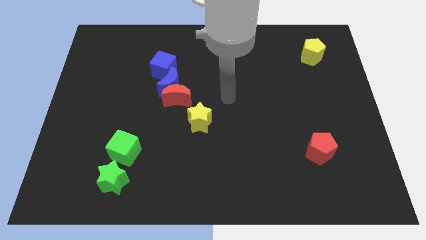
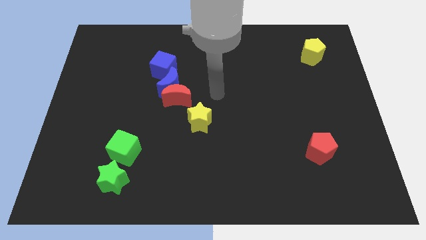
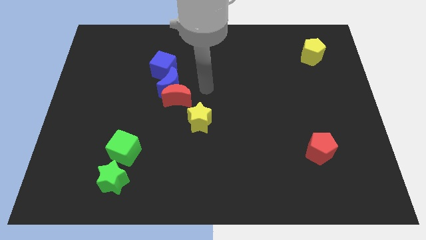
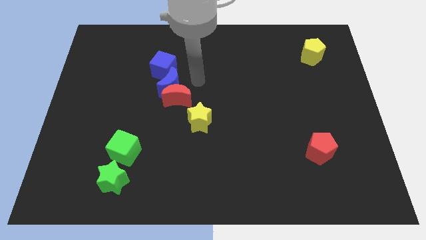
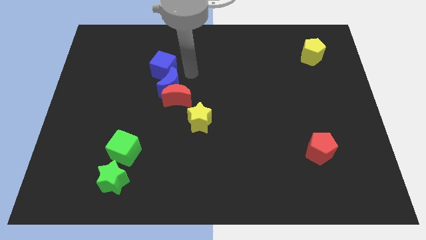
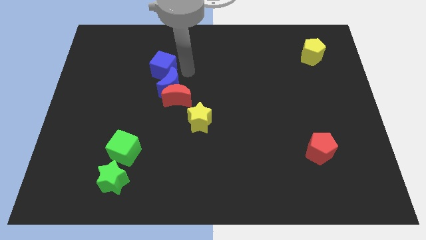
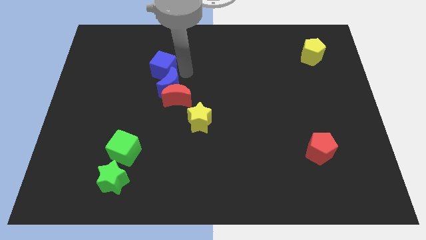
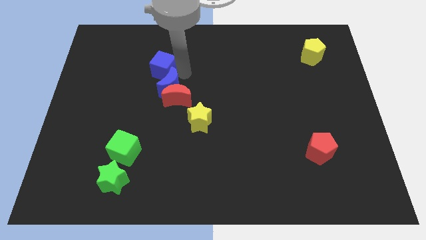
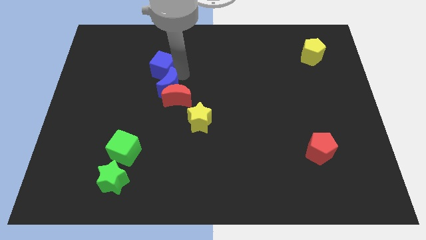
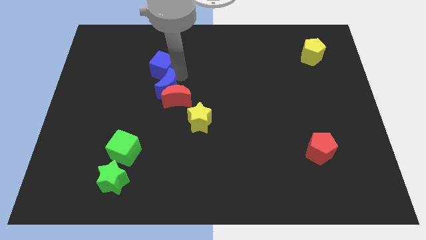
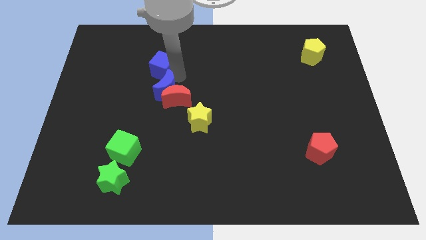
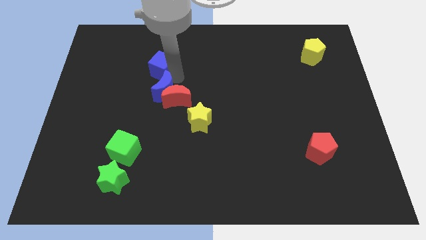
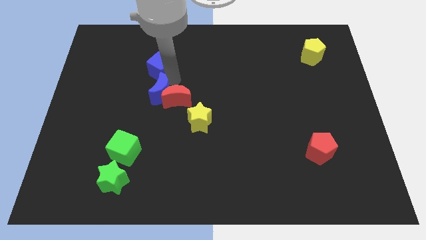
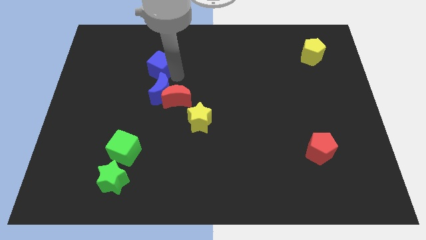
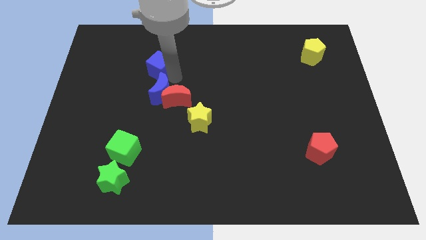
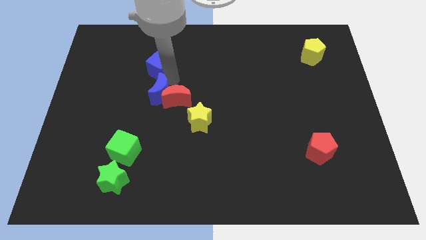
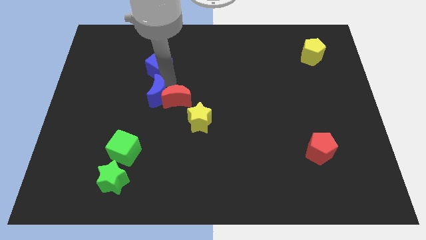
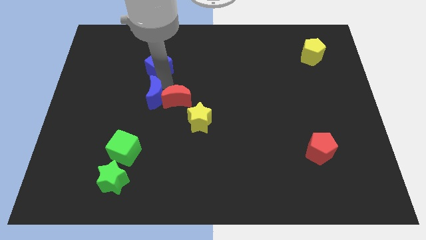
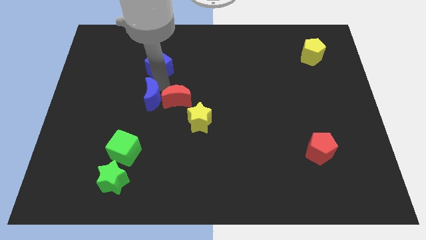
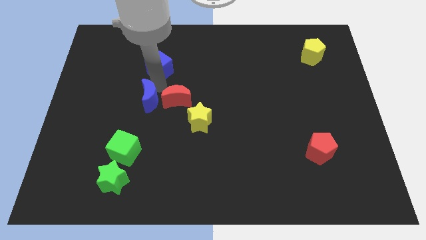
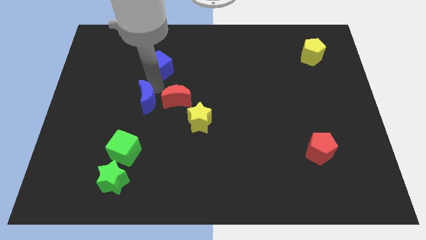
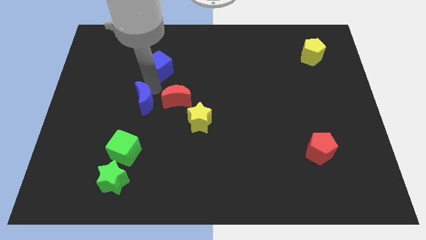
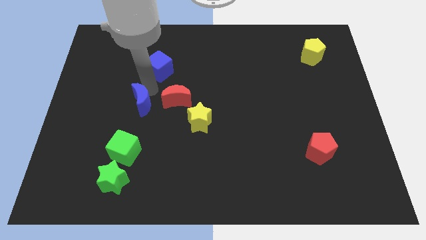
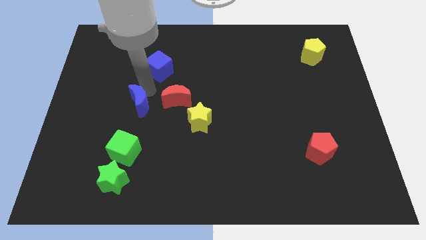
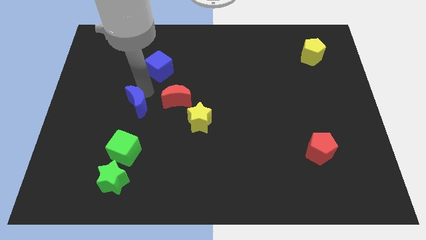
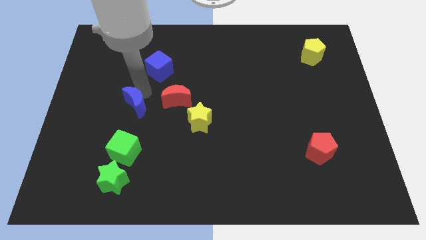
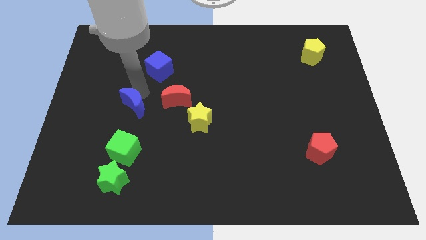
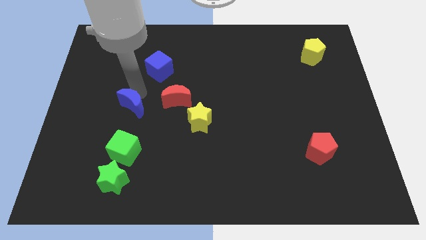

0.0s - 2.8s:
move the blue moon away from the red moon and blue cube

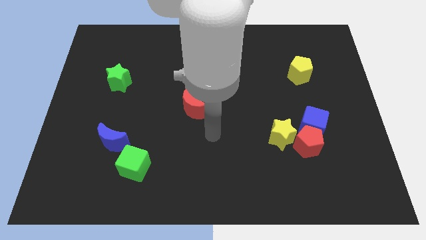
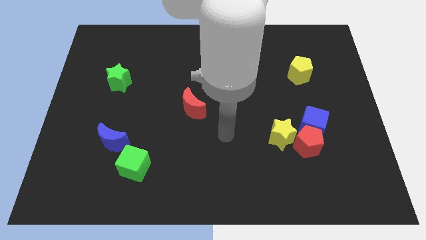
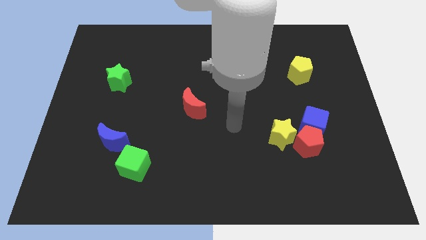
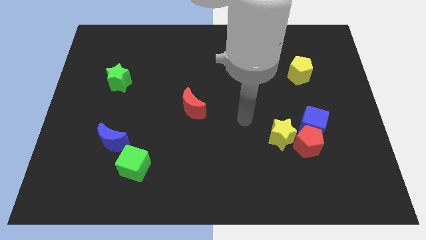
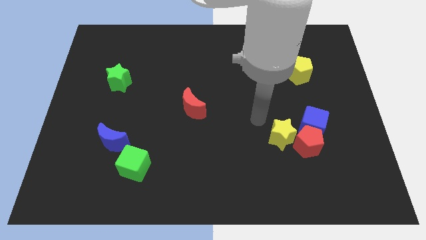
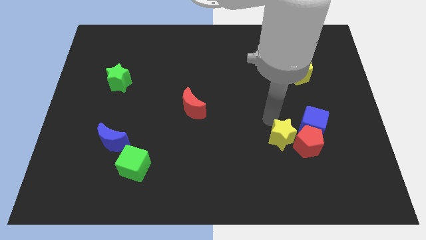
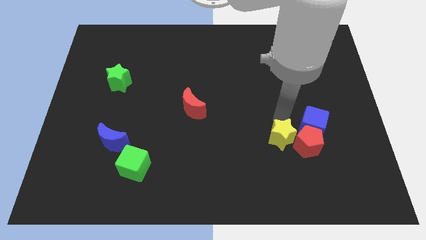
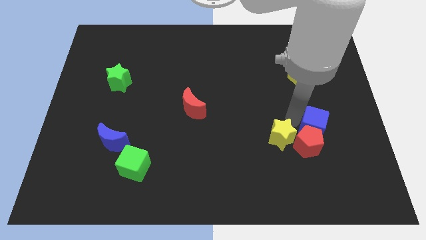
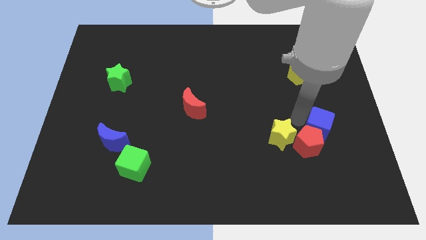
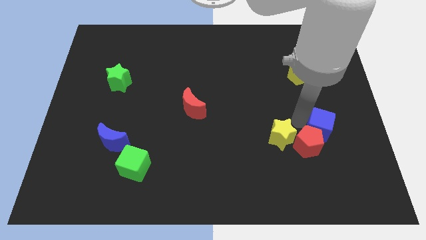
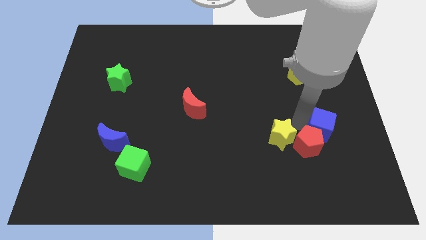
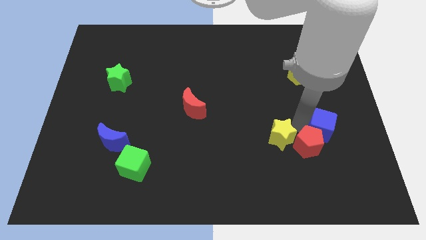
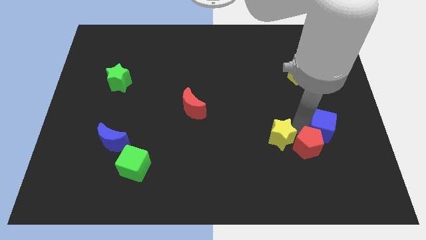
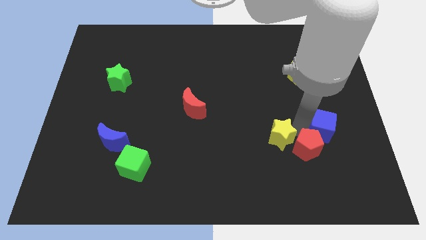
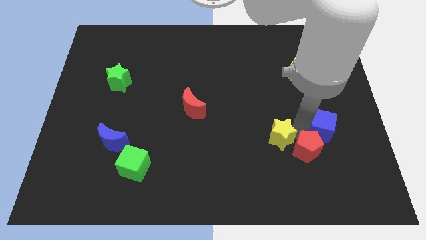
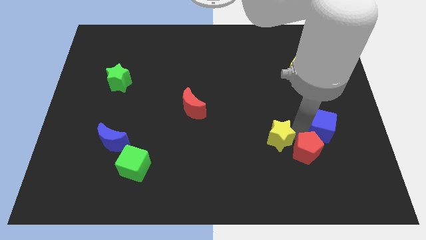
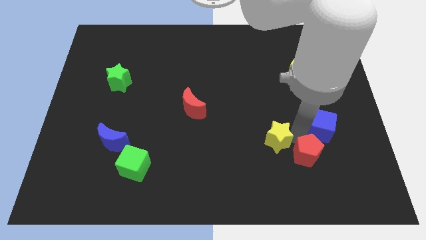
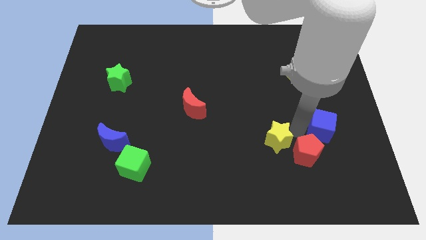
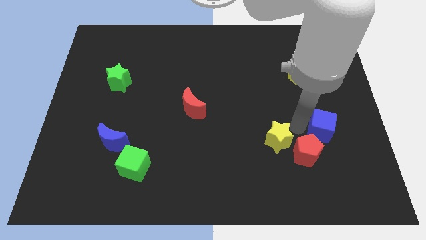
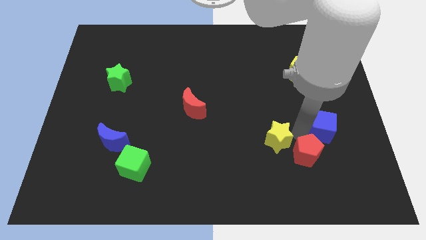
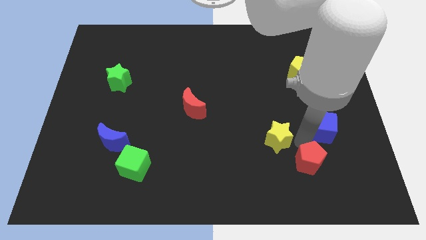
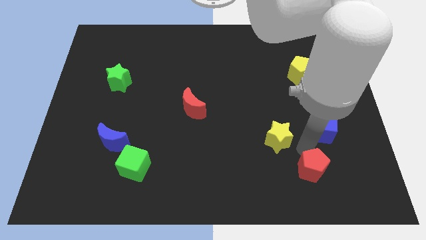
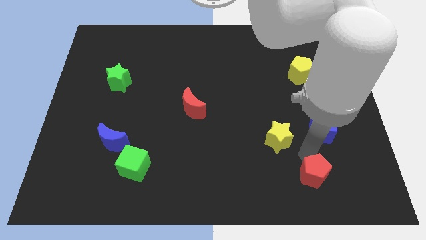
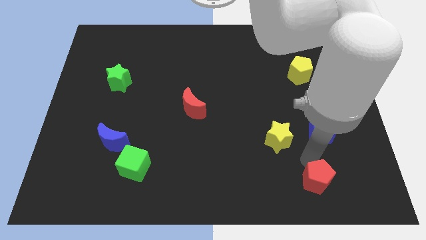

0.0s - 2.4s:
separate the red pentagon from the blue cube and yellow star

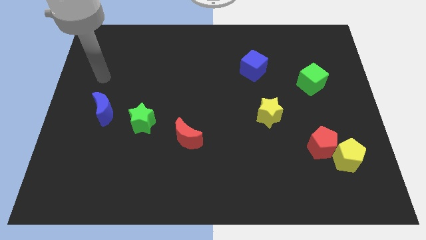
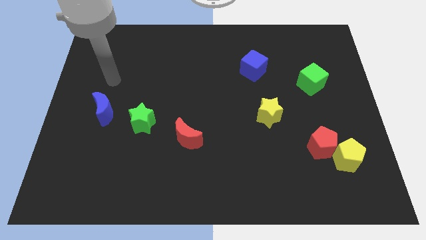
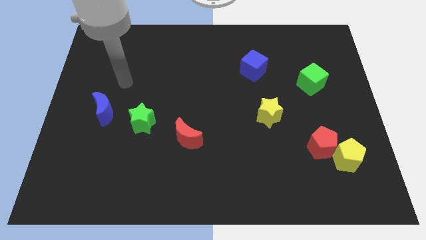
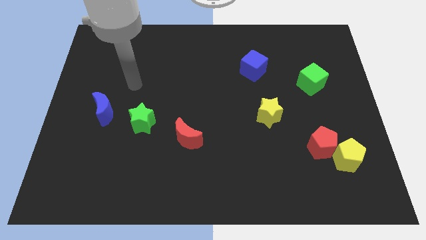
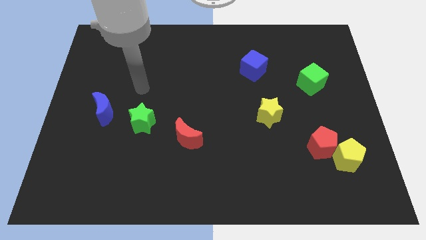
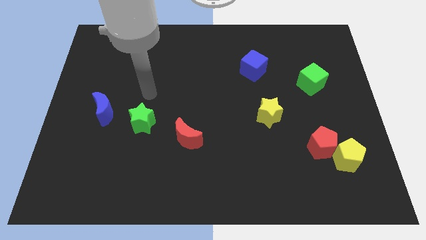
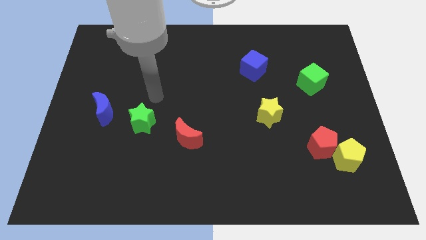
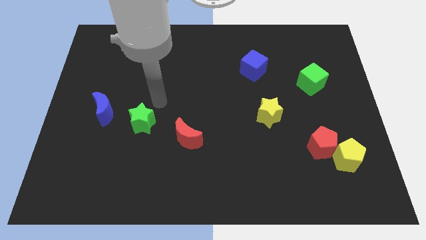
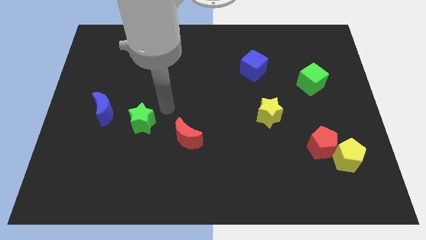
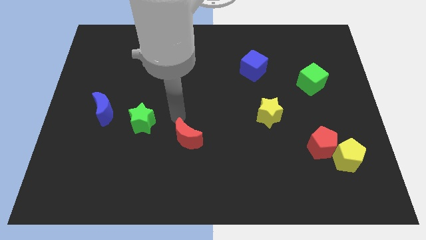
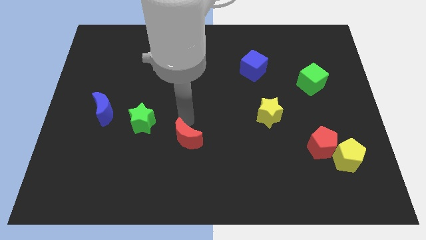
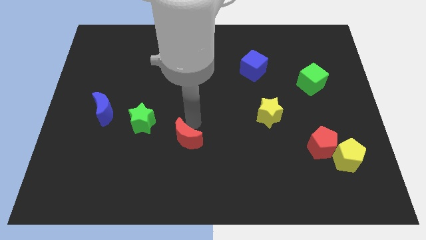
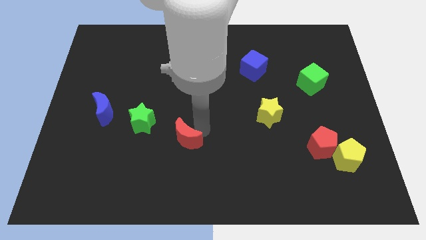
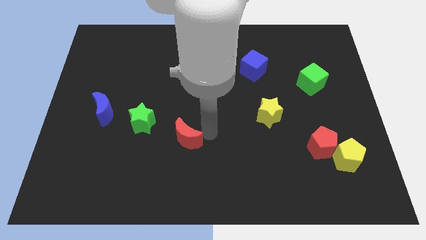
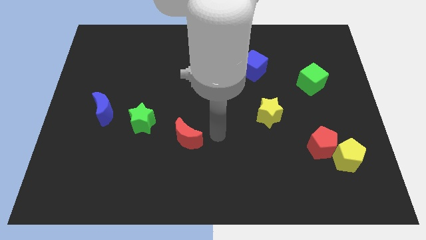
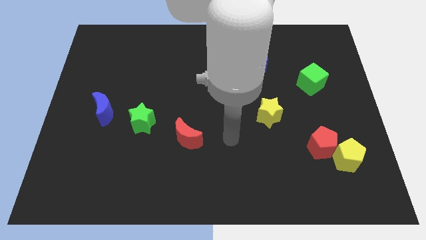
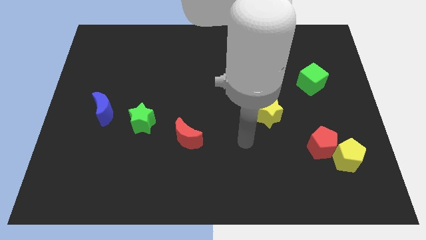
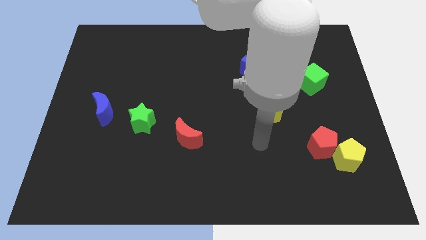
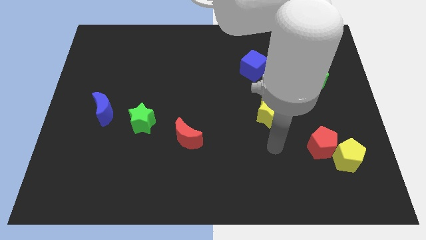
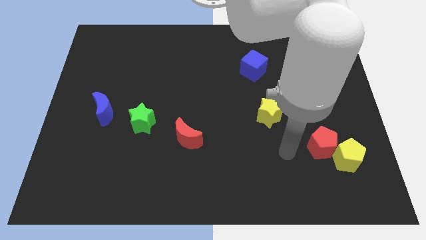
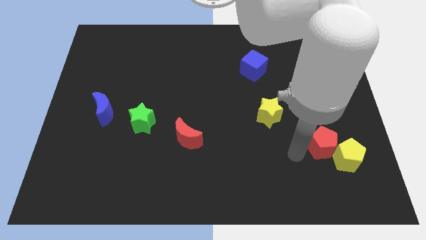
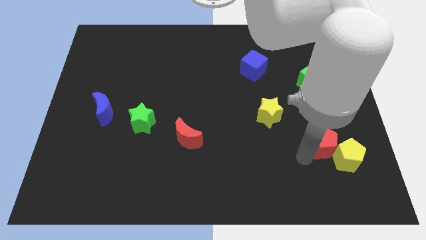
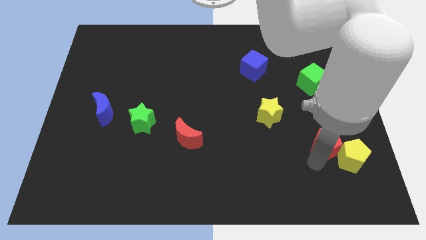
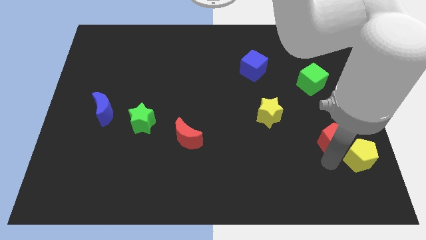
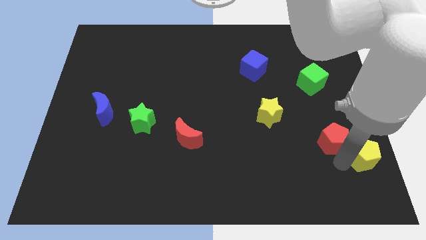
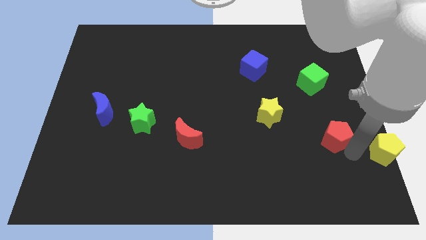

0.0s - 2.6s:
pull the red pentagon apart from the yellow pentagon

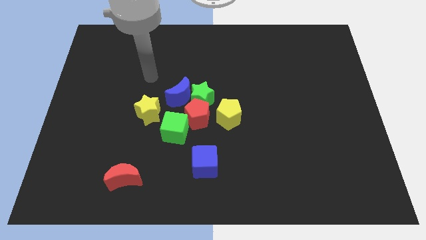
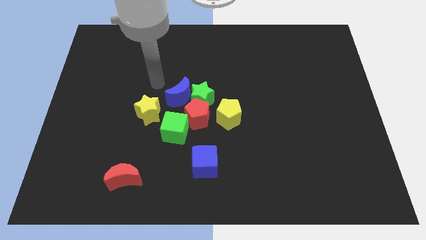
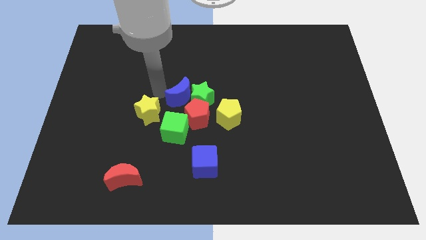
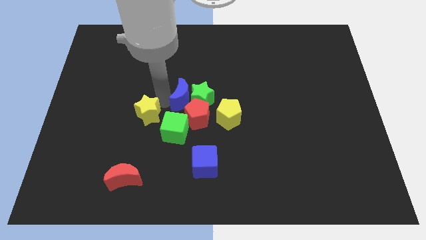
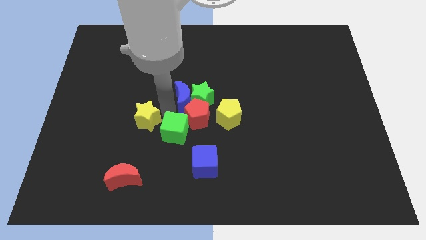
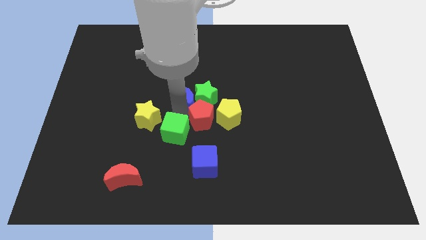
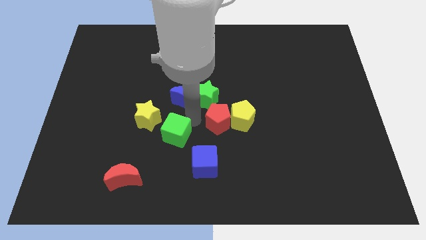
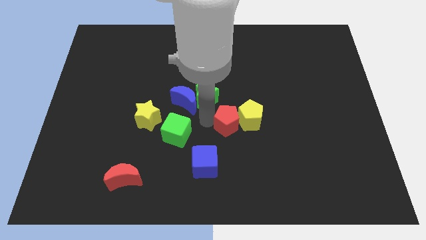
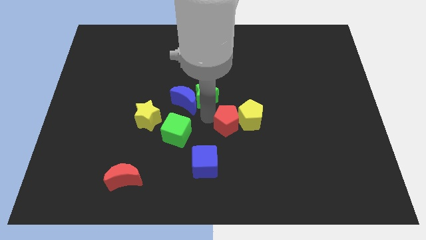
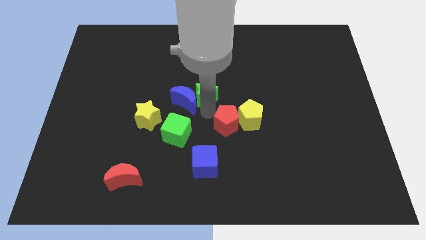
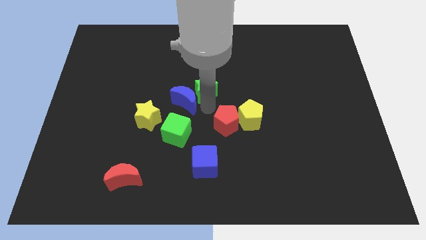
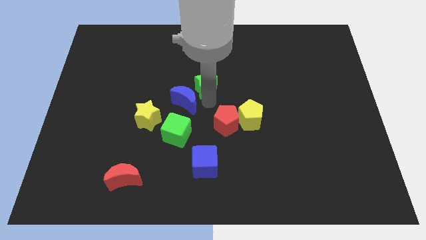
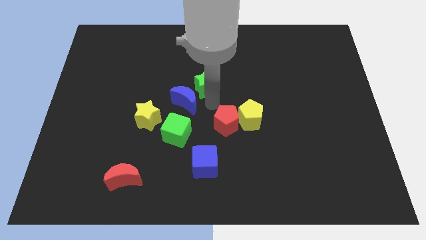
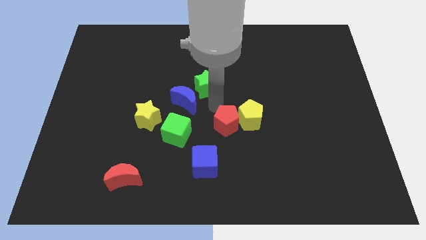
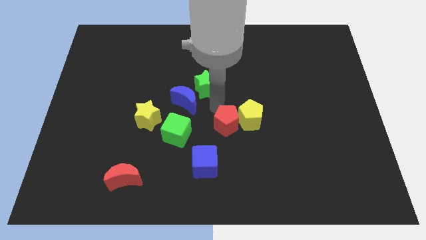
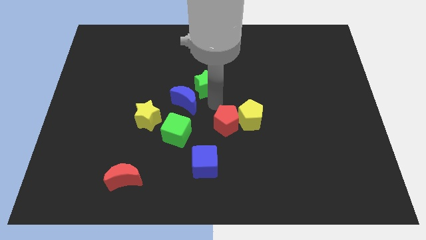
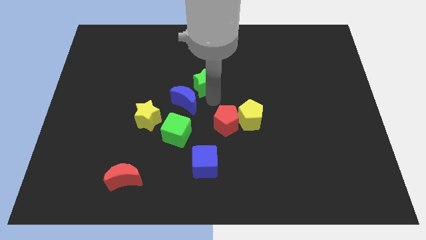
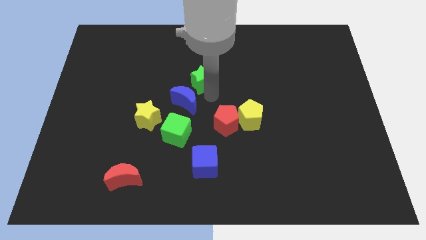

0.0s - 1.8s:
pull the green star apart from the red pentagon, blue moon, and yellow pentagon
